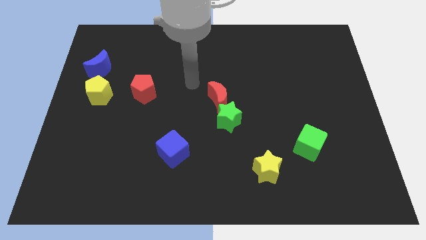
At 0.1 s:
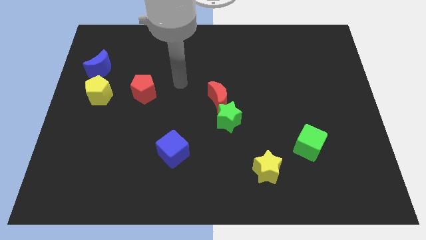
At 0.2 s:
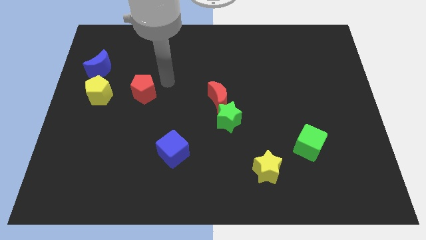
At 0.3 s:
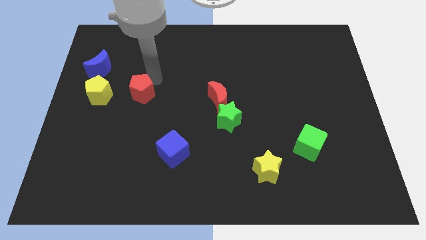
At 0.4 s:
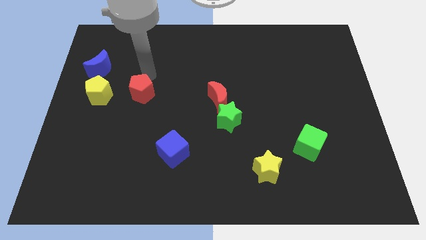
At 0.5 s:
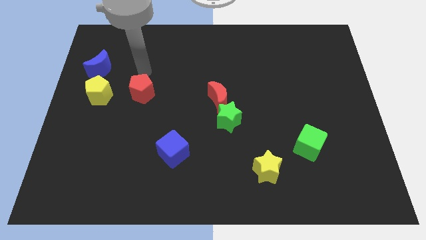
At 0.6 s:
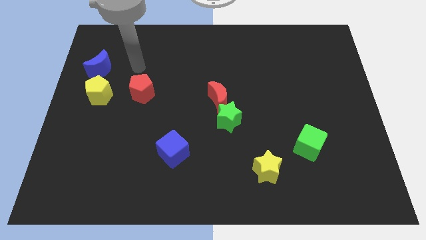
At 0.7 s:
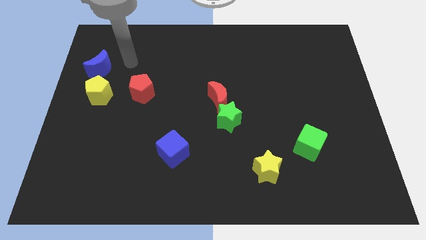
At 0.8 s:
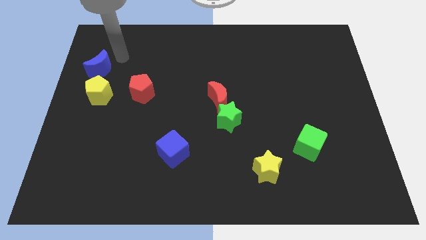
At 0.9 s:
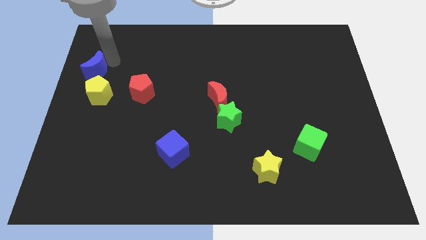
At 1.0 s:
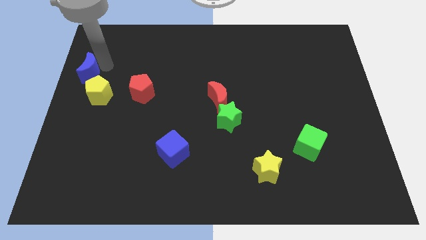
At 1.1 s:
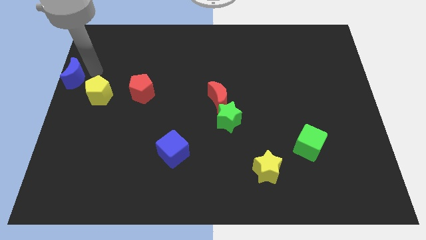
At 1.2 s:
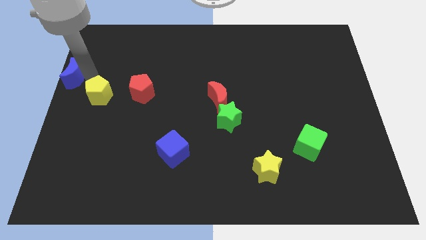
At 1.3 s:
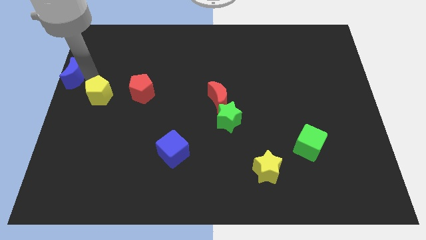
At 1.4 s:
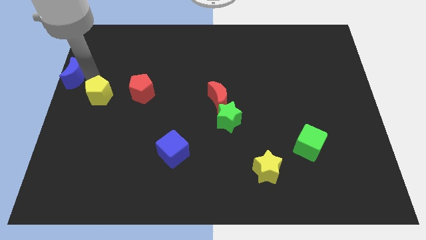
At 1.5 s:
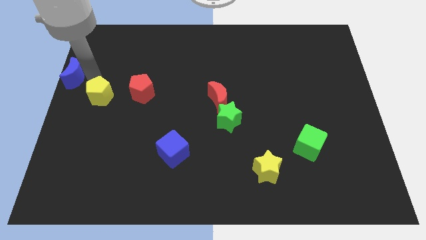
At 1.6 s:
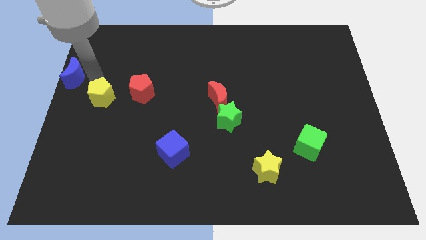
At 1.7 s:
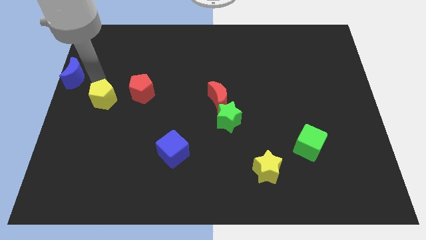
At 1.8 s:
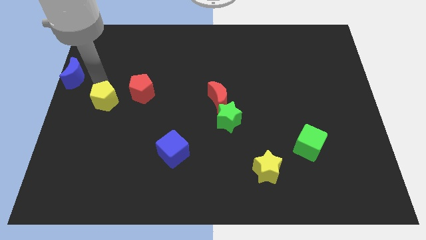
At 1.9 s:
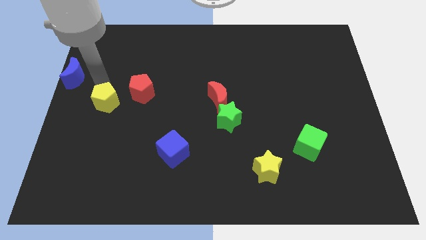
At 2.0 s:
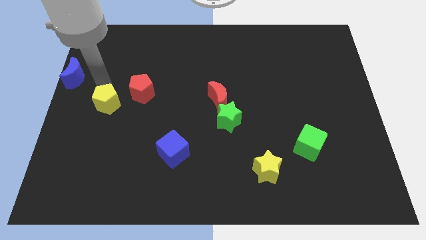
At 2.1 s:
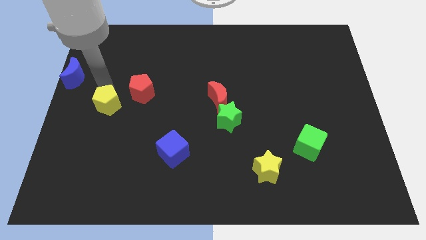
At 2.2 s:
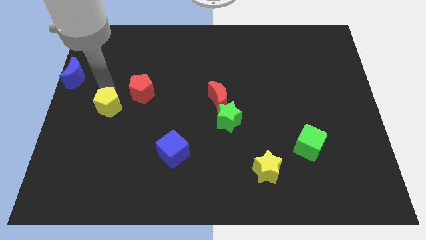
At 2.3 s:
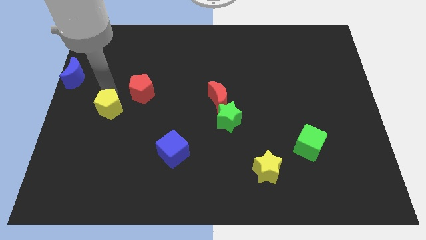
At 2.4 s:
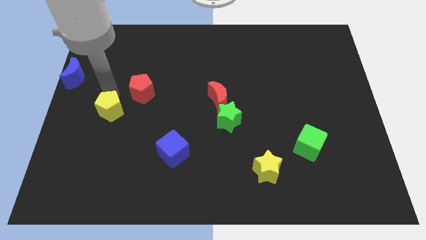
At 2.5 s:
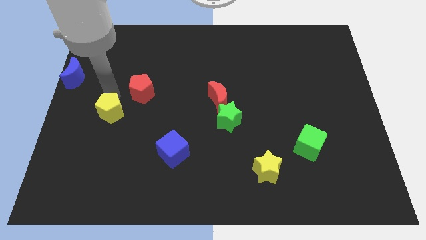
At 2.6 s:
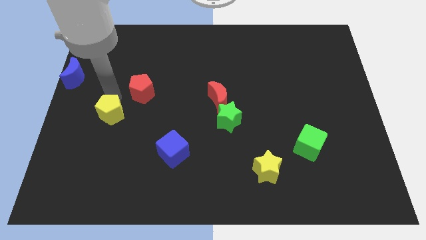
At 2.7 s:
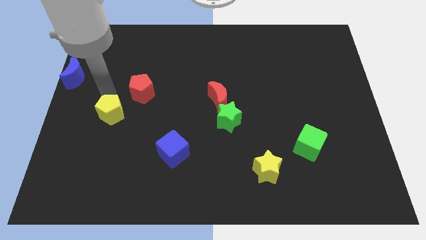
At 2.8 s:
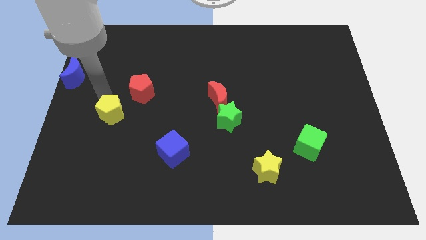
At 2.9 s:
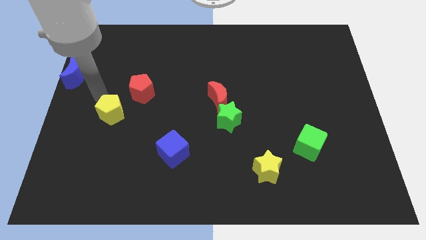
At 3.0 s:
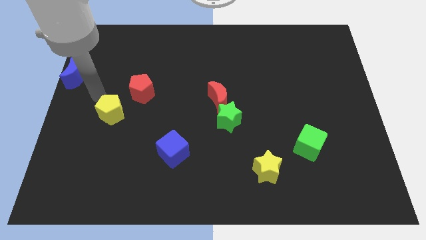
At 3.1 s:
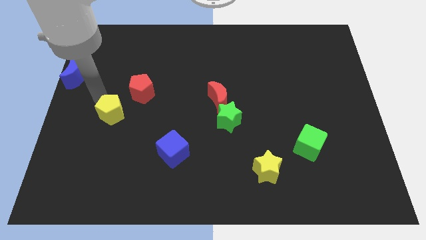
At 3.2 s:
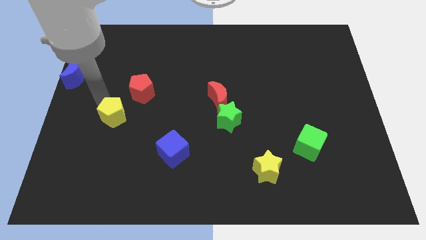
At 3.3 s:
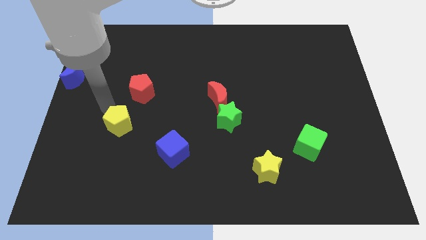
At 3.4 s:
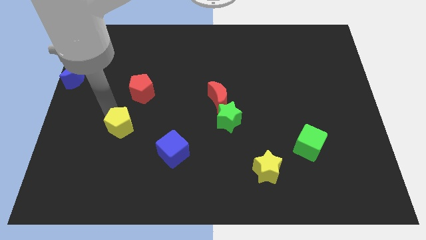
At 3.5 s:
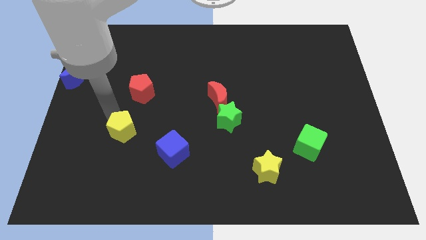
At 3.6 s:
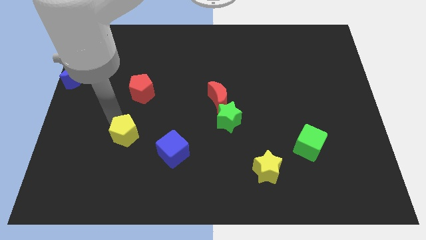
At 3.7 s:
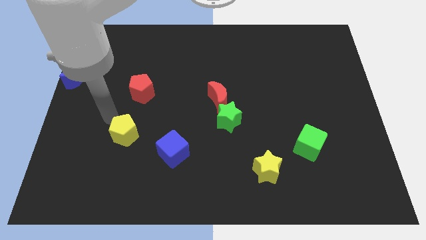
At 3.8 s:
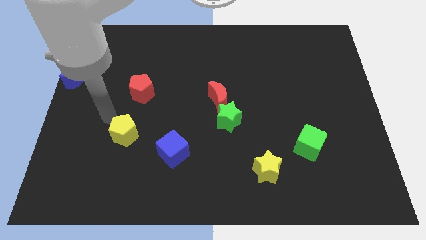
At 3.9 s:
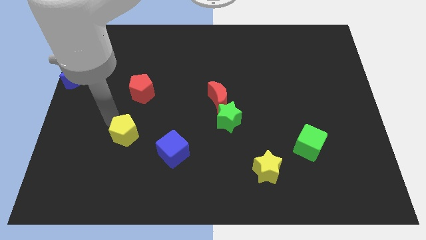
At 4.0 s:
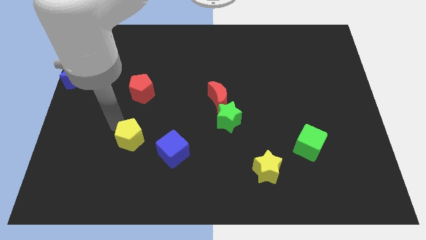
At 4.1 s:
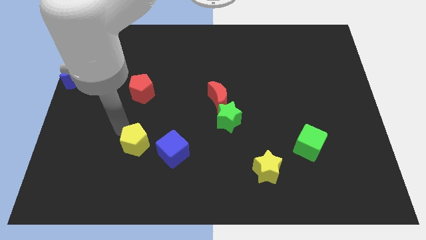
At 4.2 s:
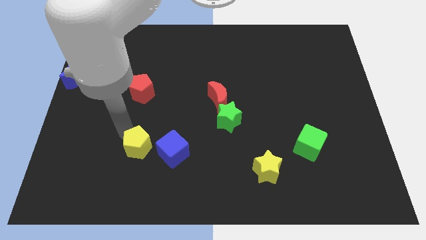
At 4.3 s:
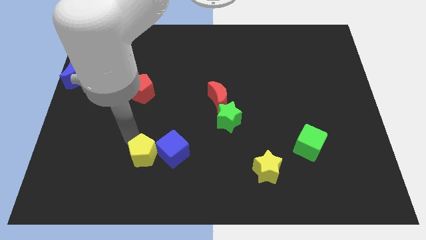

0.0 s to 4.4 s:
push the yellow pentagon diagonally down and to the right

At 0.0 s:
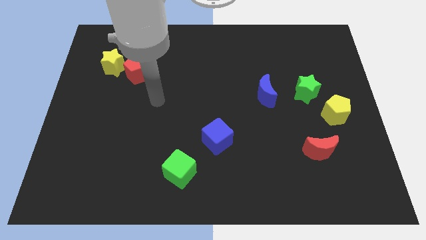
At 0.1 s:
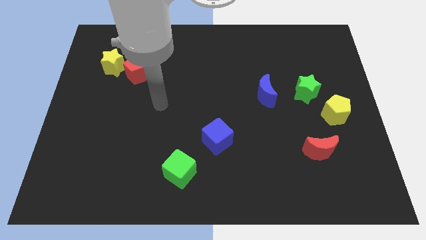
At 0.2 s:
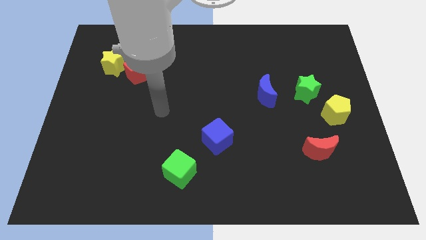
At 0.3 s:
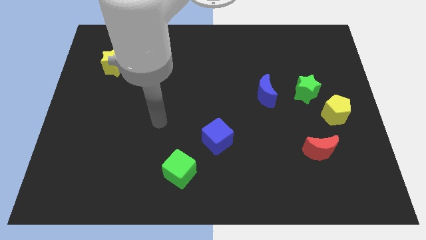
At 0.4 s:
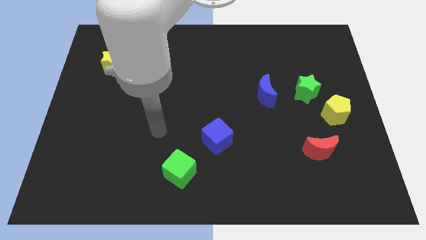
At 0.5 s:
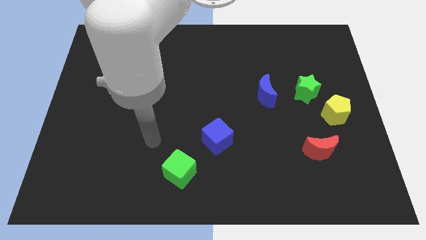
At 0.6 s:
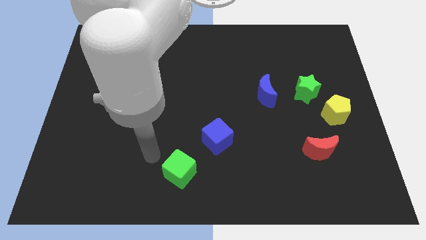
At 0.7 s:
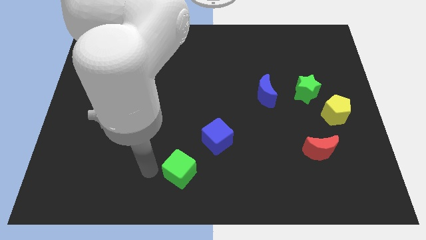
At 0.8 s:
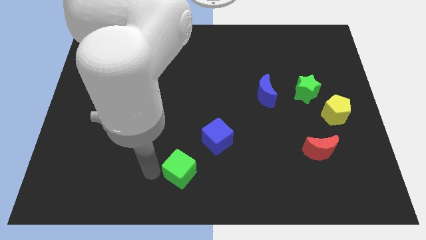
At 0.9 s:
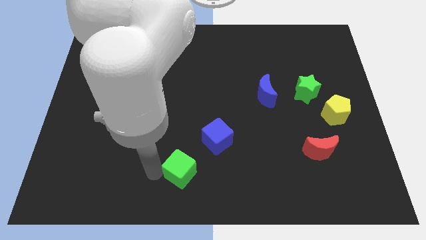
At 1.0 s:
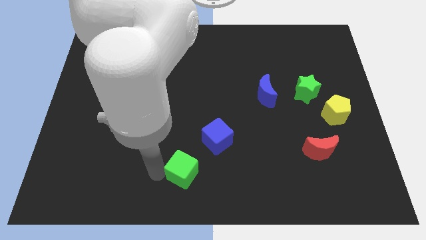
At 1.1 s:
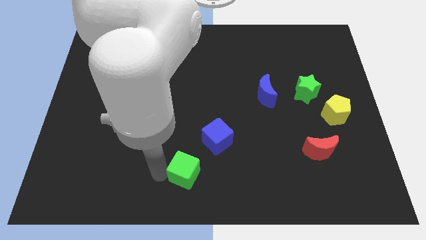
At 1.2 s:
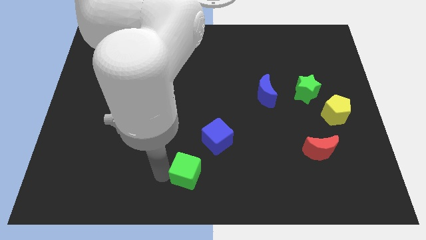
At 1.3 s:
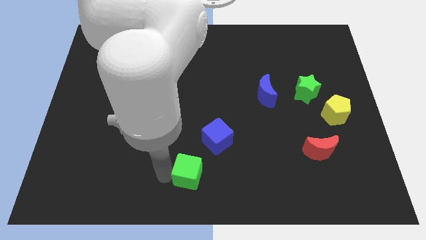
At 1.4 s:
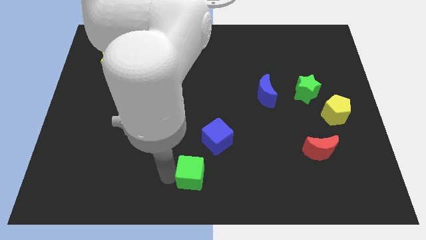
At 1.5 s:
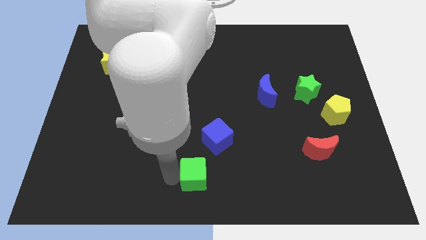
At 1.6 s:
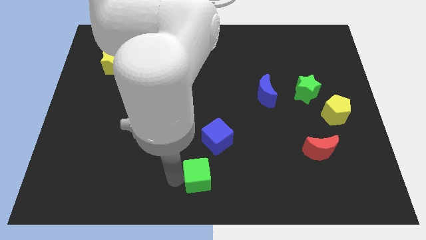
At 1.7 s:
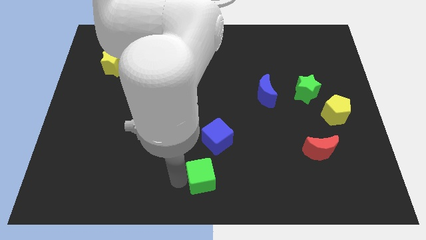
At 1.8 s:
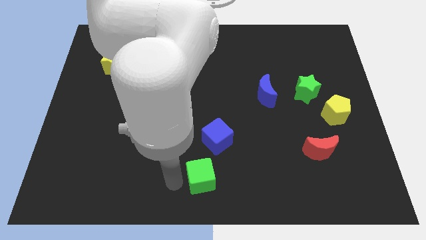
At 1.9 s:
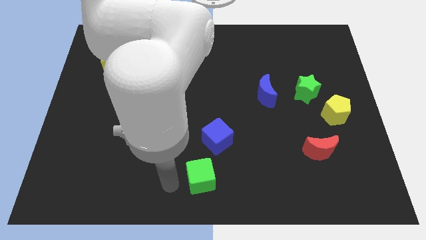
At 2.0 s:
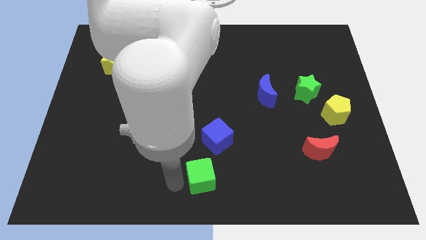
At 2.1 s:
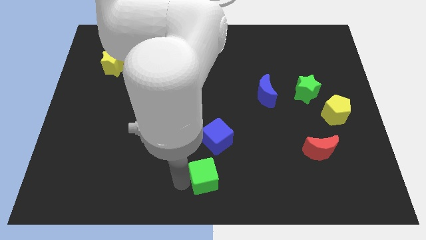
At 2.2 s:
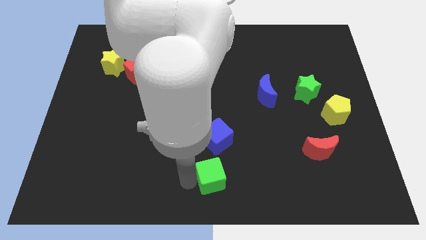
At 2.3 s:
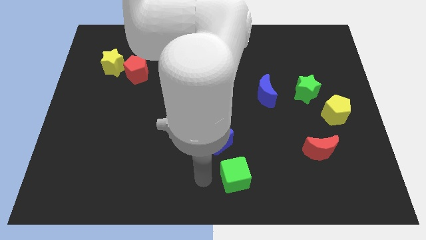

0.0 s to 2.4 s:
move the green cube right a little

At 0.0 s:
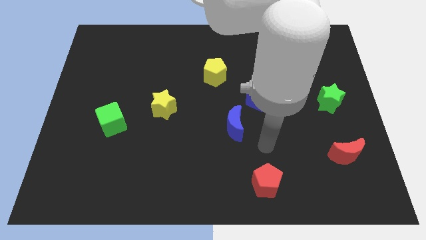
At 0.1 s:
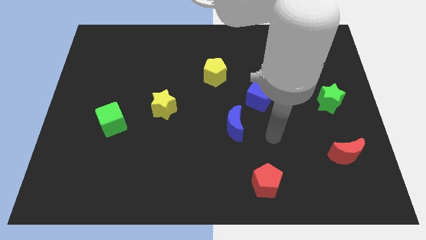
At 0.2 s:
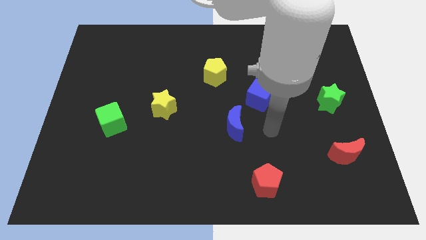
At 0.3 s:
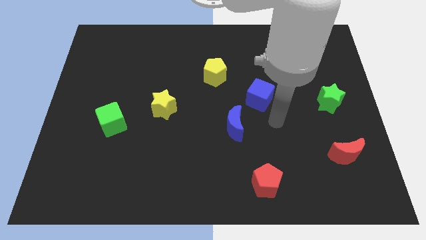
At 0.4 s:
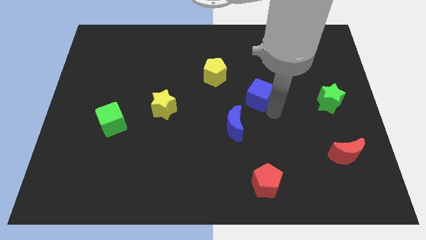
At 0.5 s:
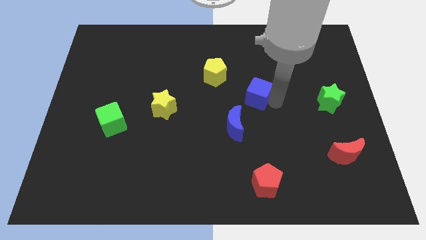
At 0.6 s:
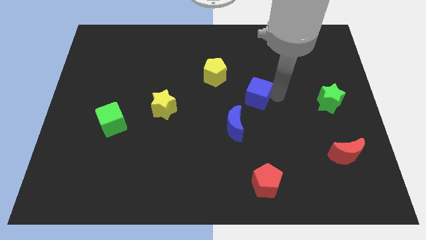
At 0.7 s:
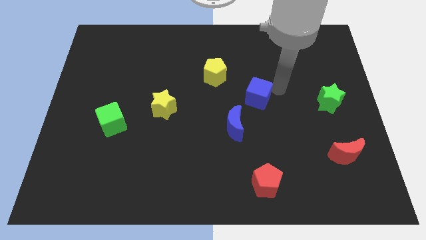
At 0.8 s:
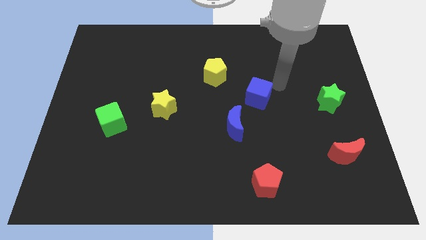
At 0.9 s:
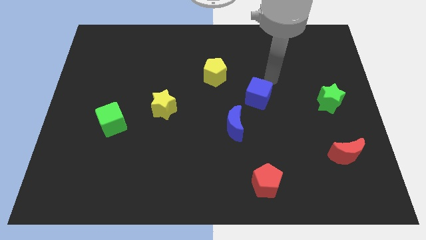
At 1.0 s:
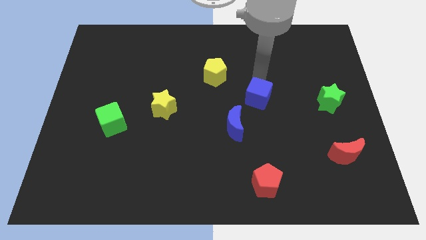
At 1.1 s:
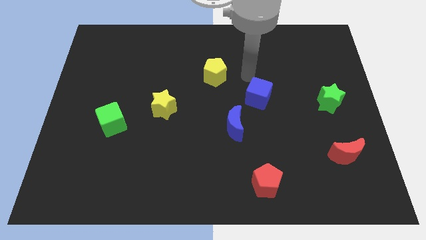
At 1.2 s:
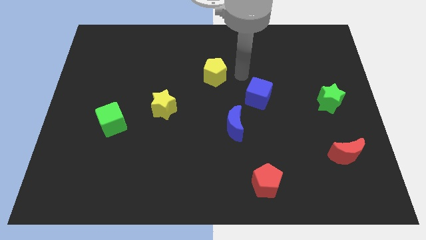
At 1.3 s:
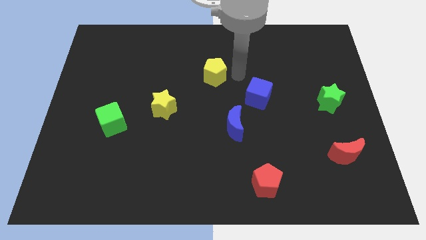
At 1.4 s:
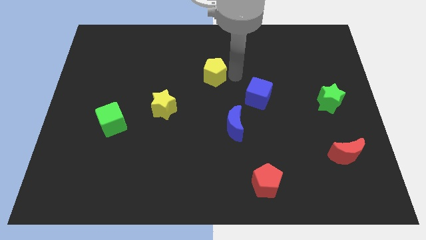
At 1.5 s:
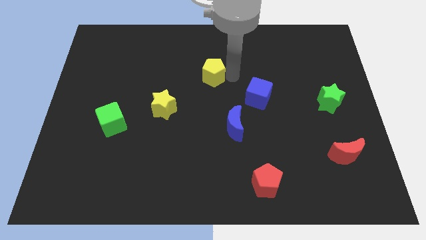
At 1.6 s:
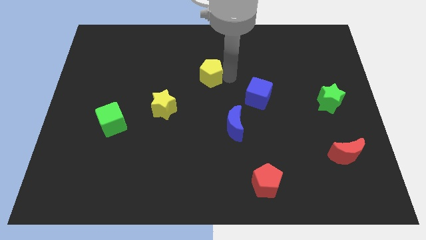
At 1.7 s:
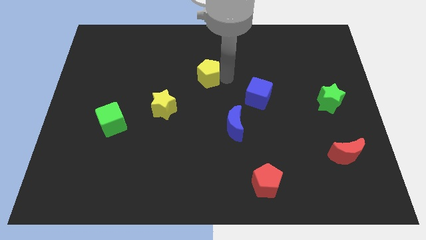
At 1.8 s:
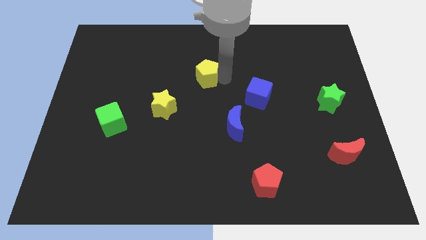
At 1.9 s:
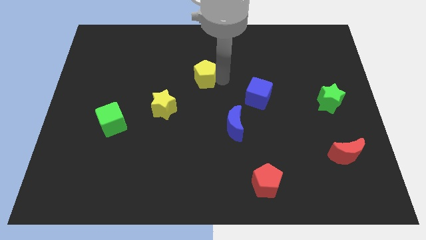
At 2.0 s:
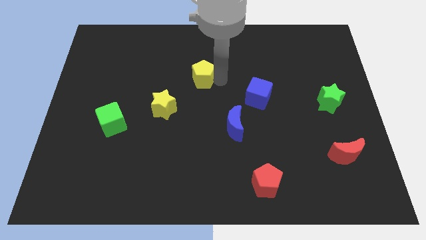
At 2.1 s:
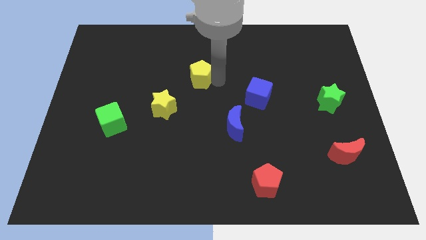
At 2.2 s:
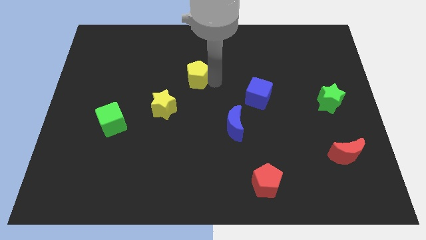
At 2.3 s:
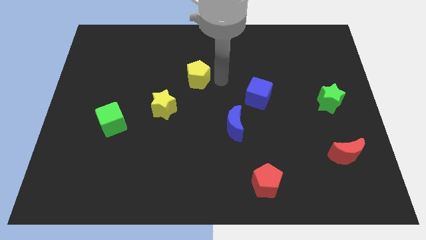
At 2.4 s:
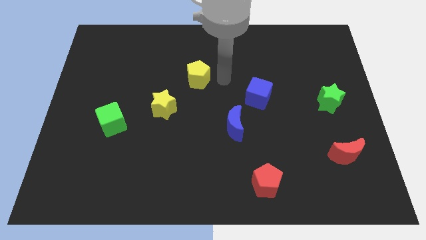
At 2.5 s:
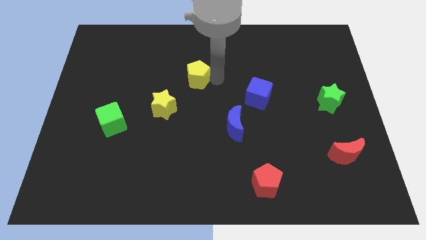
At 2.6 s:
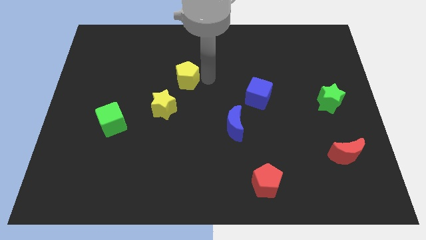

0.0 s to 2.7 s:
slightly slide the yellow pentagon left
